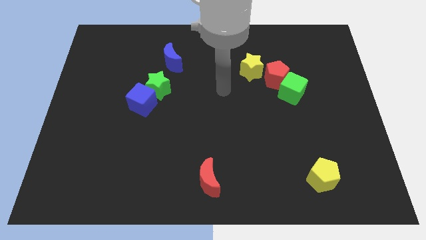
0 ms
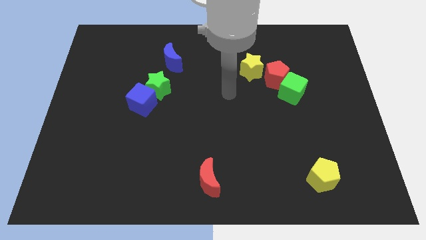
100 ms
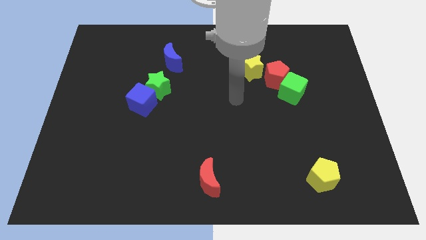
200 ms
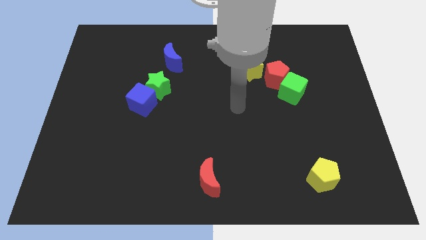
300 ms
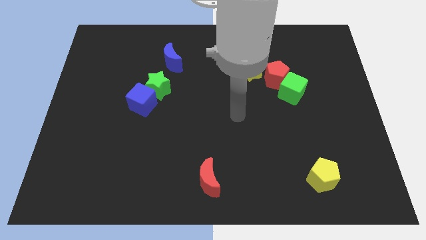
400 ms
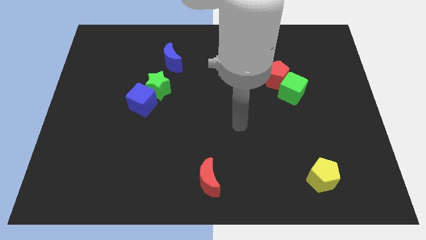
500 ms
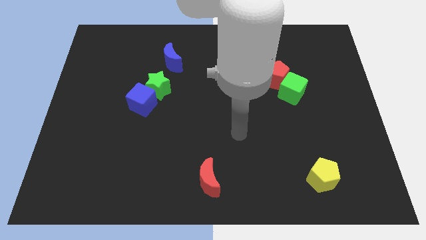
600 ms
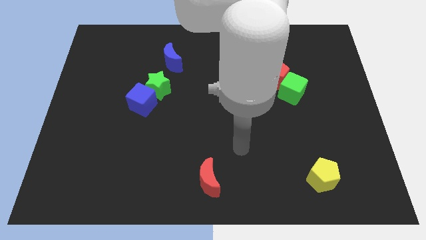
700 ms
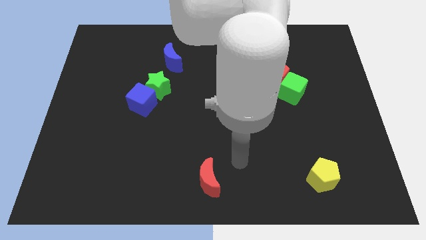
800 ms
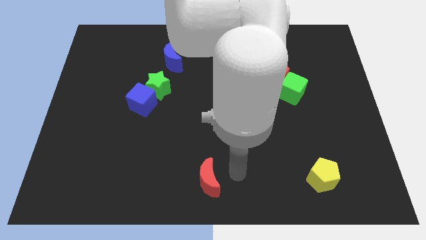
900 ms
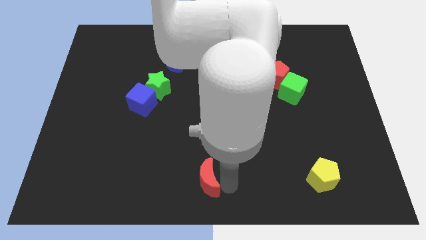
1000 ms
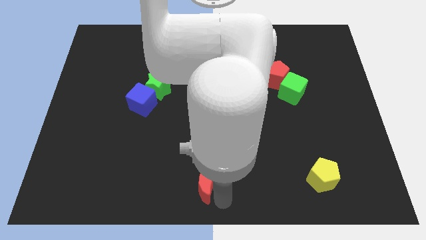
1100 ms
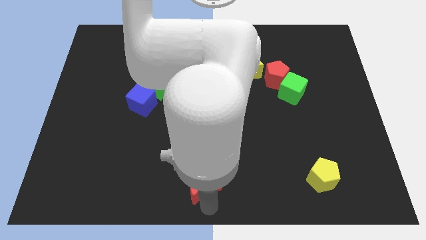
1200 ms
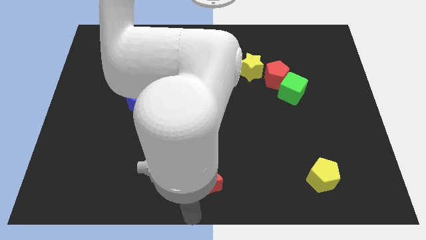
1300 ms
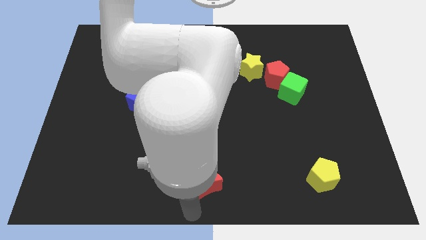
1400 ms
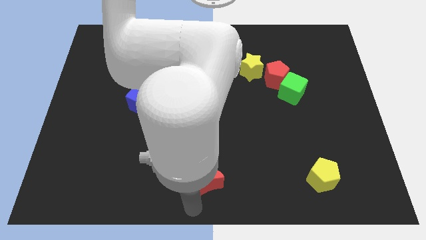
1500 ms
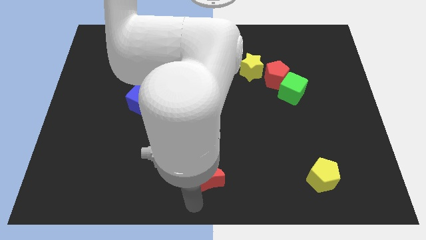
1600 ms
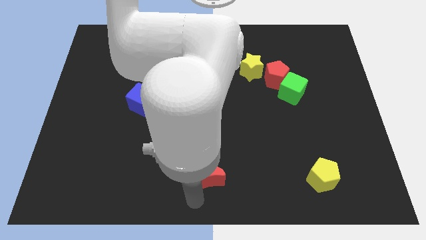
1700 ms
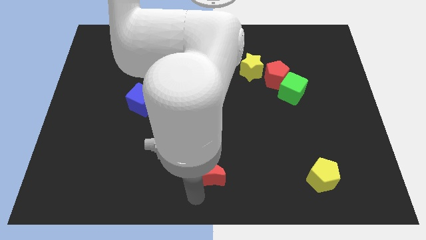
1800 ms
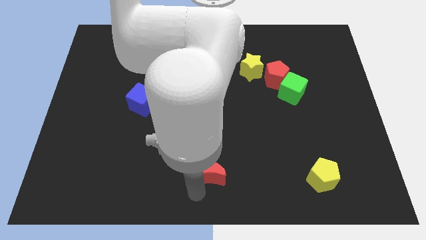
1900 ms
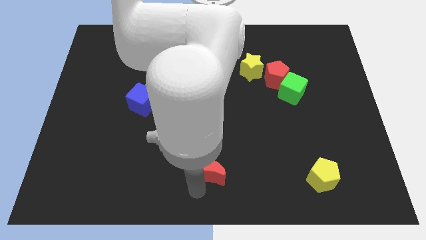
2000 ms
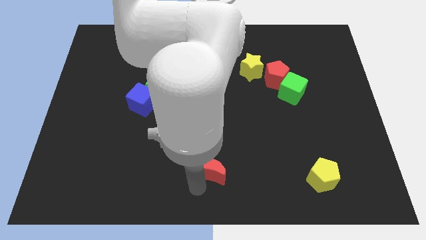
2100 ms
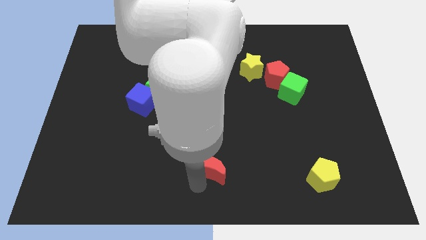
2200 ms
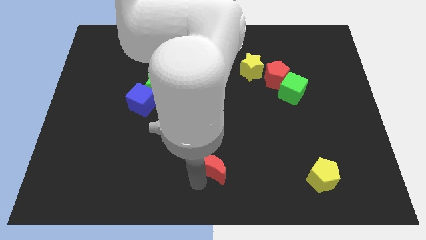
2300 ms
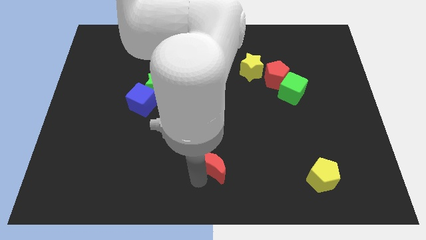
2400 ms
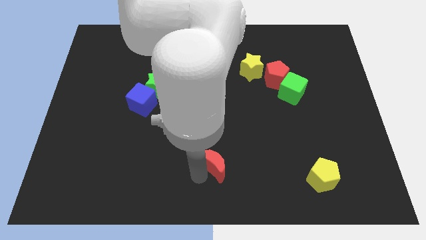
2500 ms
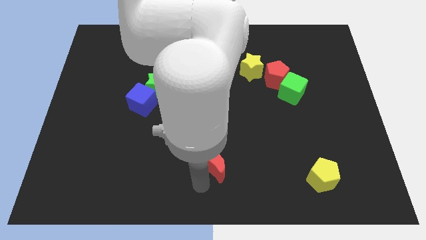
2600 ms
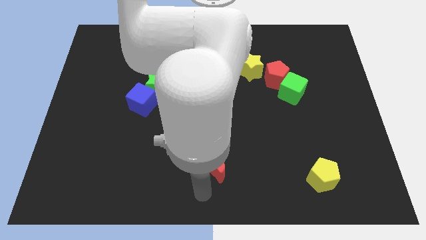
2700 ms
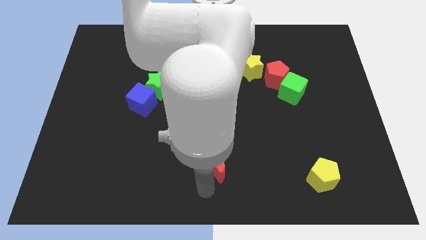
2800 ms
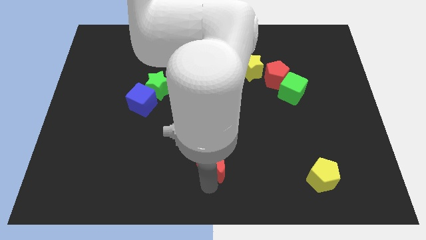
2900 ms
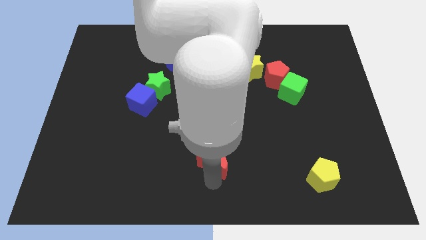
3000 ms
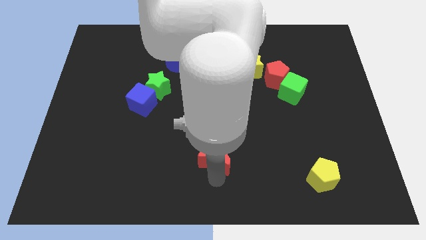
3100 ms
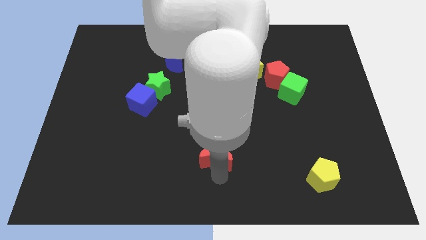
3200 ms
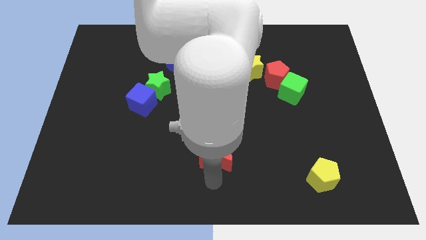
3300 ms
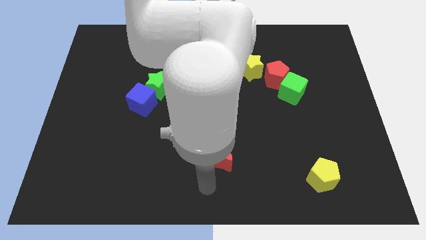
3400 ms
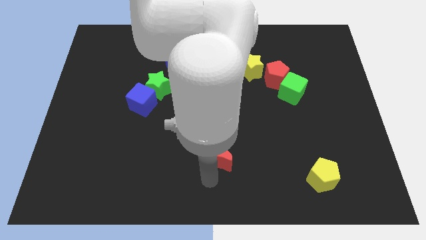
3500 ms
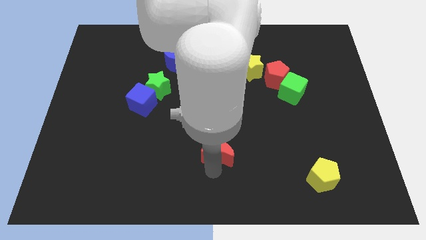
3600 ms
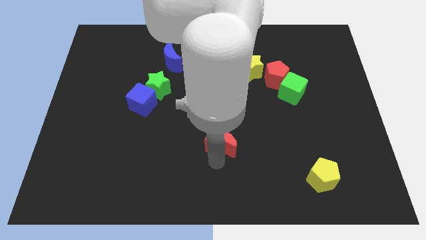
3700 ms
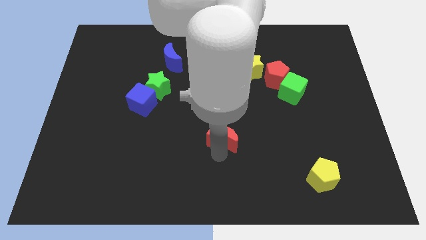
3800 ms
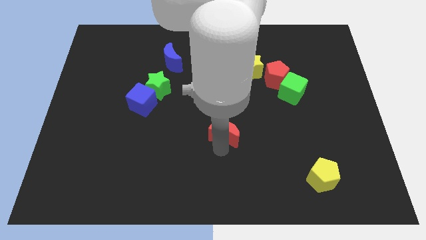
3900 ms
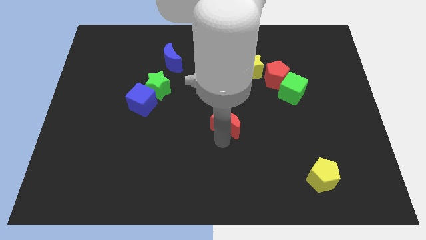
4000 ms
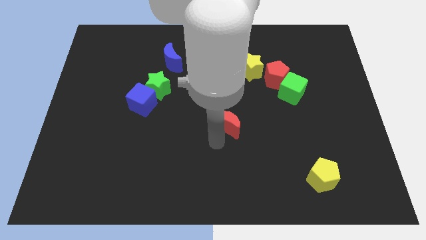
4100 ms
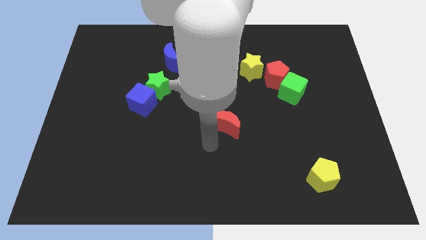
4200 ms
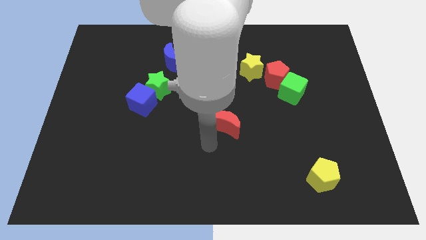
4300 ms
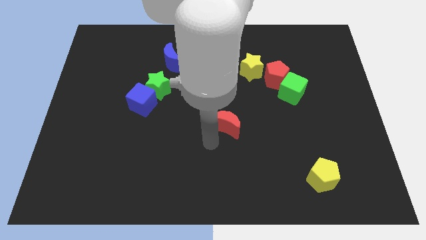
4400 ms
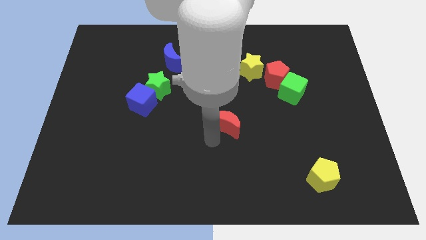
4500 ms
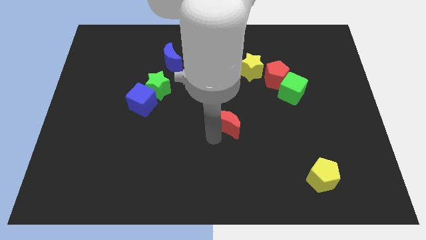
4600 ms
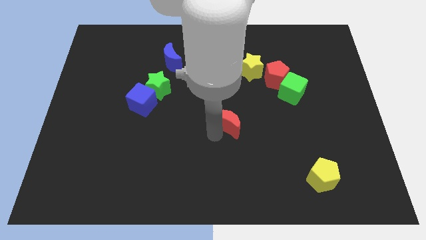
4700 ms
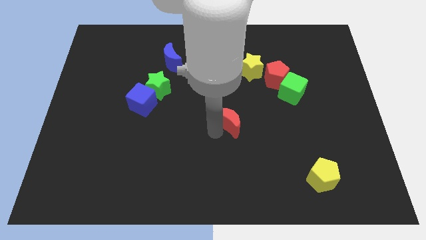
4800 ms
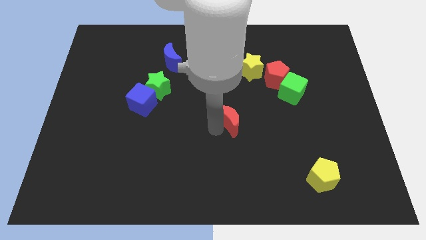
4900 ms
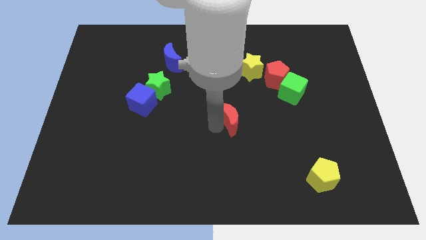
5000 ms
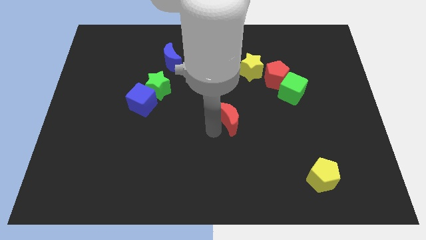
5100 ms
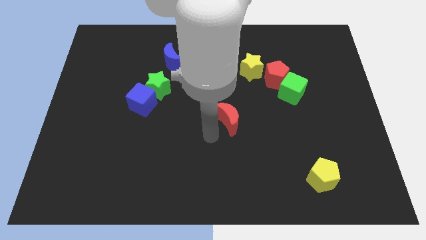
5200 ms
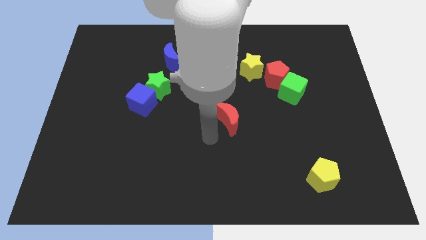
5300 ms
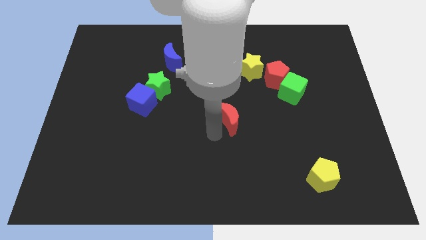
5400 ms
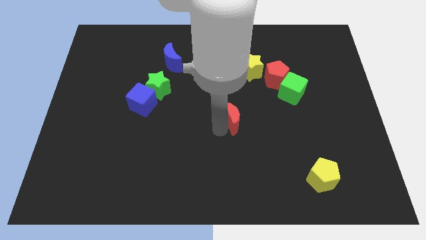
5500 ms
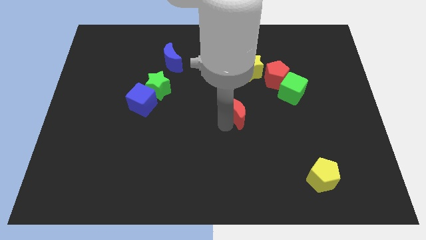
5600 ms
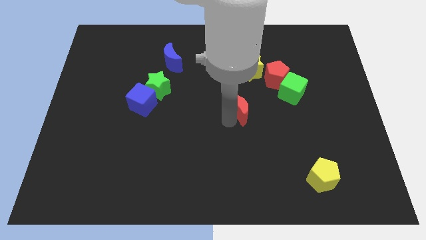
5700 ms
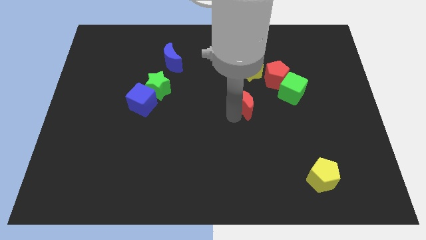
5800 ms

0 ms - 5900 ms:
push the red moon to the bottom left of the red pentagon

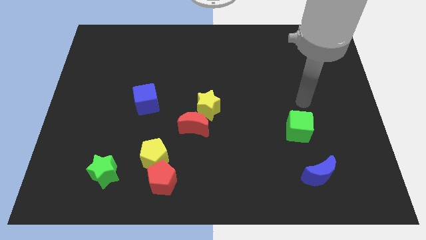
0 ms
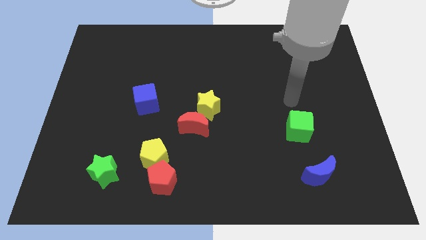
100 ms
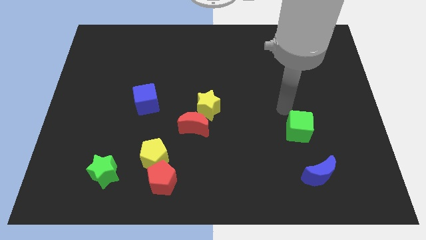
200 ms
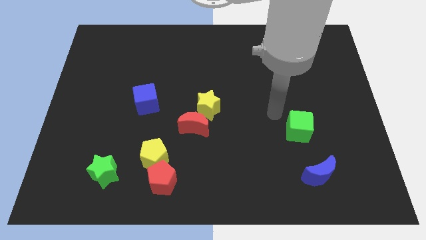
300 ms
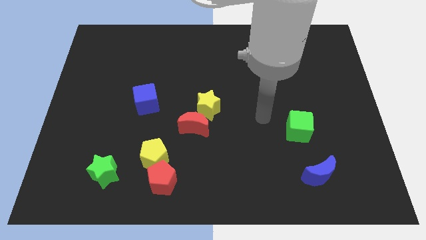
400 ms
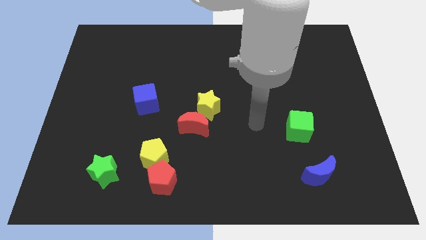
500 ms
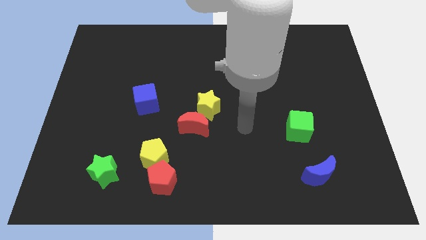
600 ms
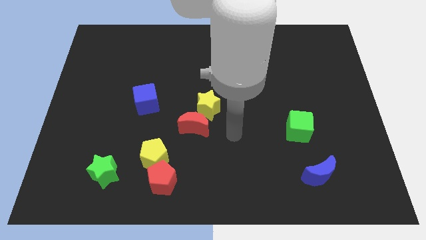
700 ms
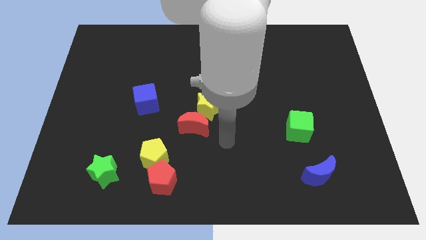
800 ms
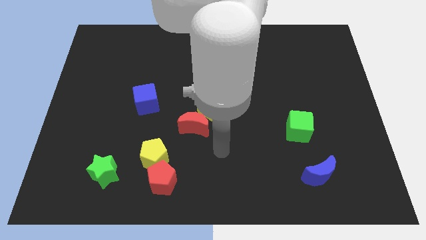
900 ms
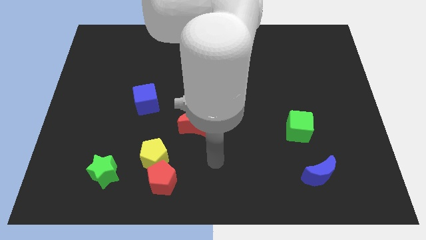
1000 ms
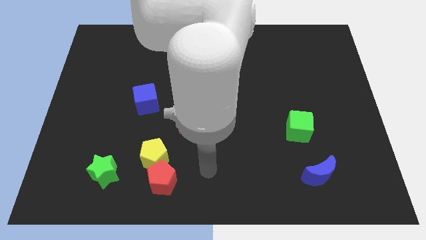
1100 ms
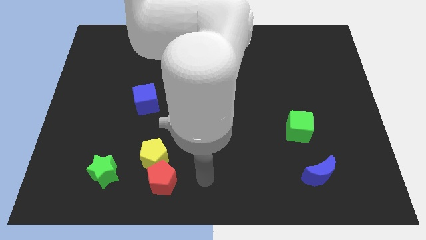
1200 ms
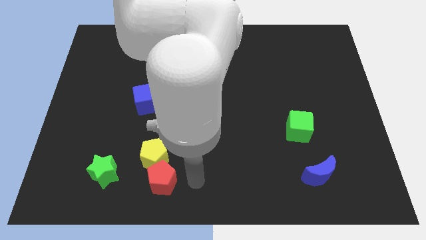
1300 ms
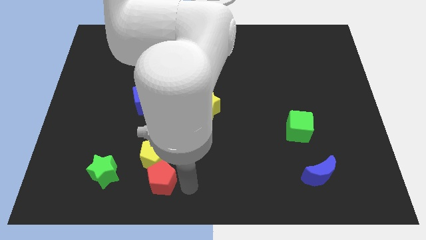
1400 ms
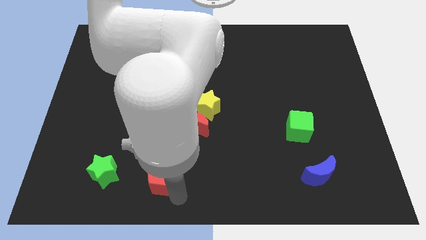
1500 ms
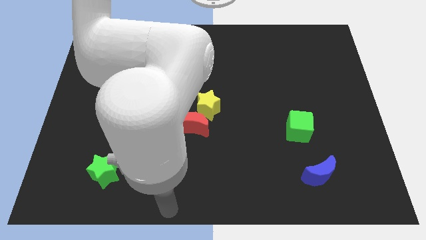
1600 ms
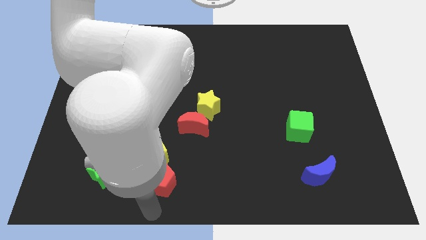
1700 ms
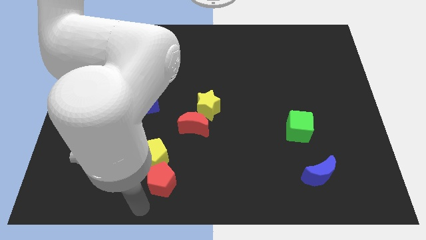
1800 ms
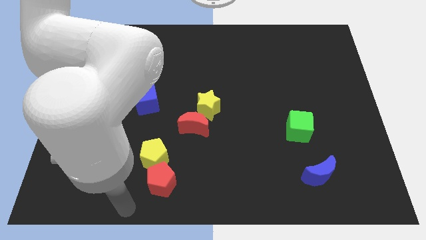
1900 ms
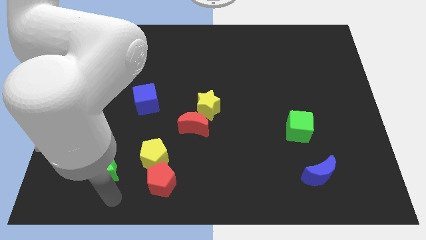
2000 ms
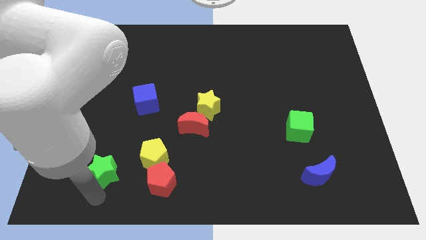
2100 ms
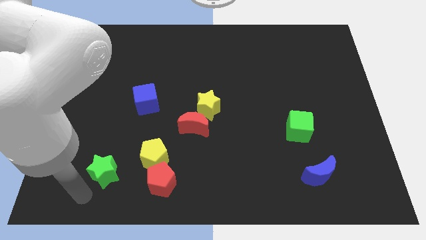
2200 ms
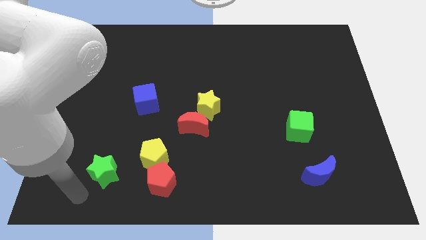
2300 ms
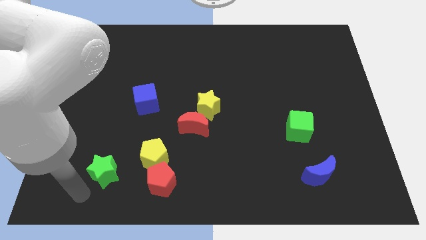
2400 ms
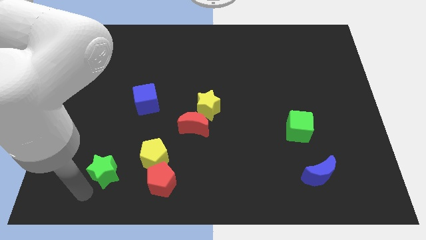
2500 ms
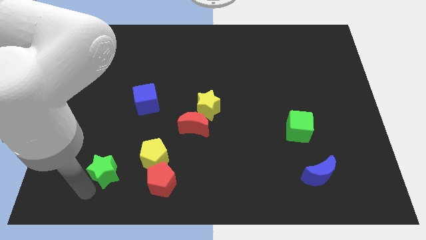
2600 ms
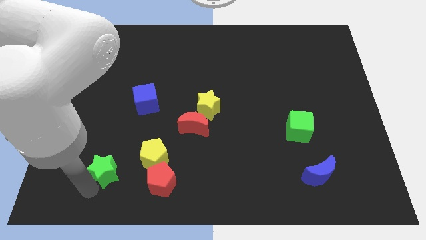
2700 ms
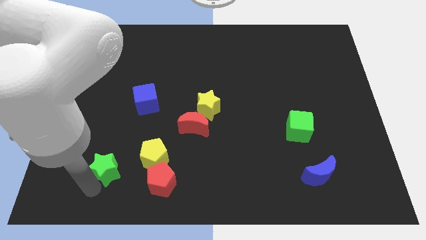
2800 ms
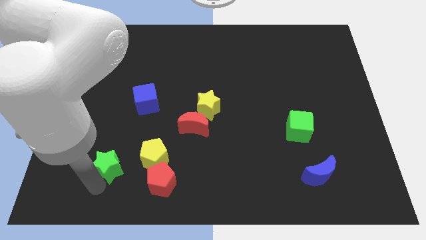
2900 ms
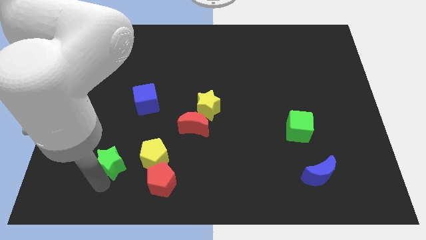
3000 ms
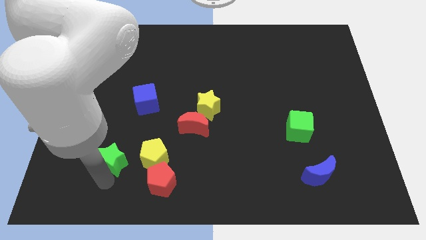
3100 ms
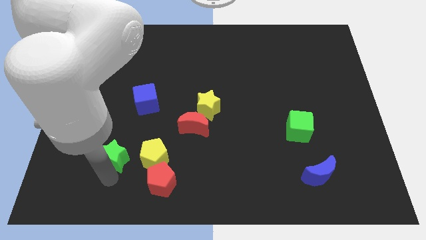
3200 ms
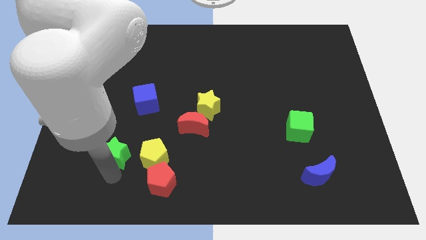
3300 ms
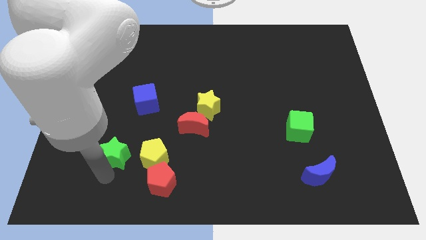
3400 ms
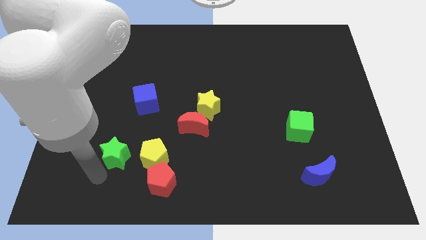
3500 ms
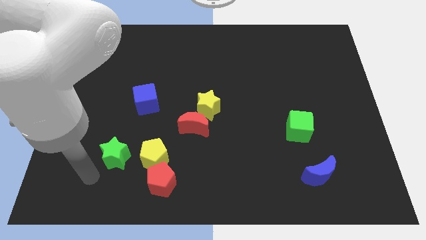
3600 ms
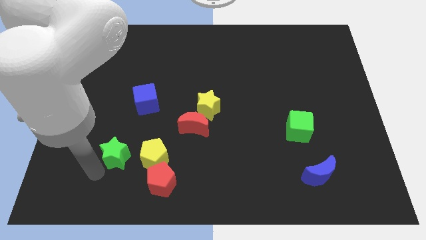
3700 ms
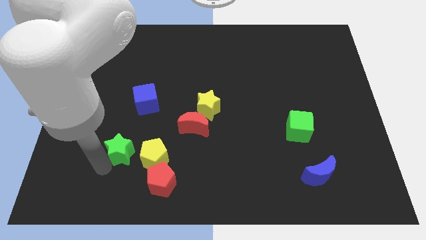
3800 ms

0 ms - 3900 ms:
slide the green star to the bottom side of the blue cube
